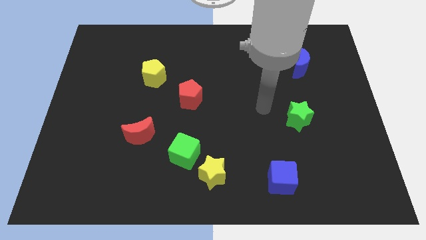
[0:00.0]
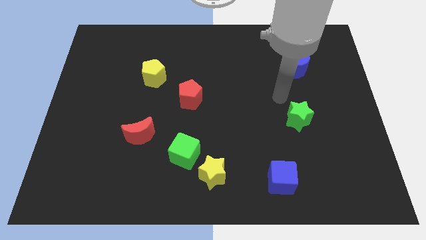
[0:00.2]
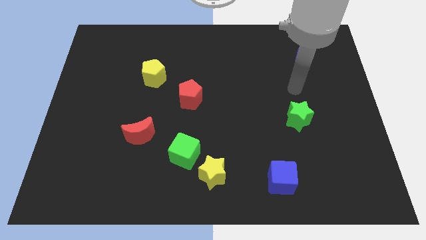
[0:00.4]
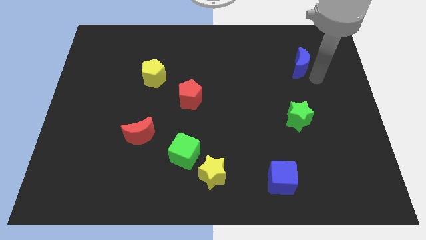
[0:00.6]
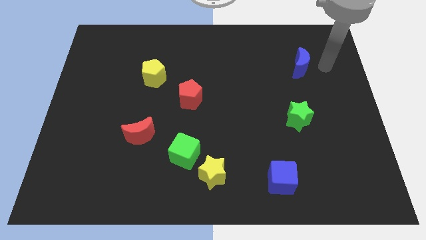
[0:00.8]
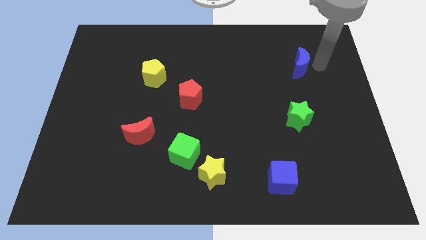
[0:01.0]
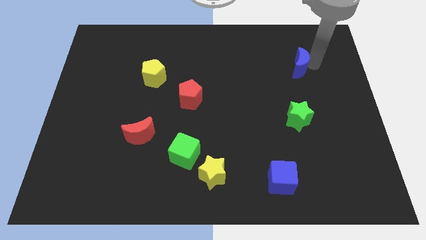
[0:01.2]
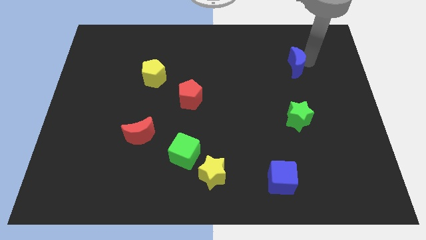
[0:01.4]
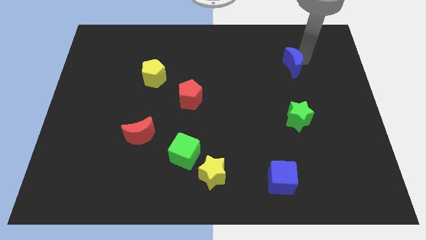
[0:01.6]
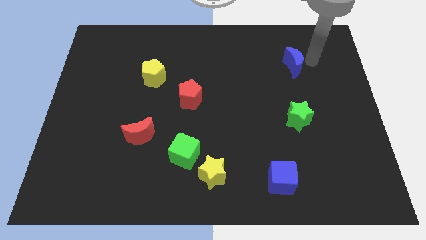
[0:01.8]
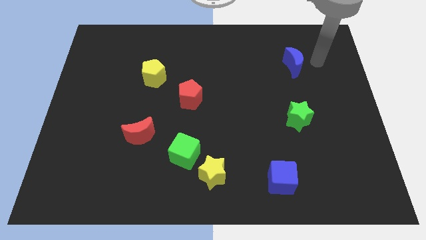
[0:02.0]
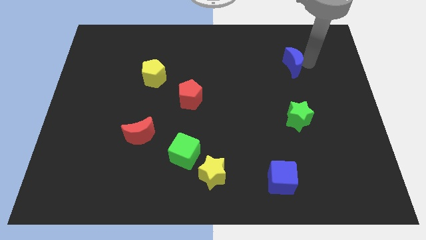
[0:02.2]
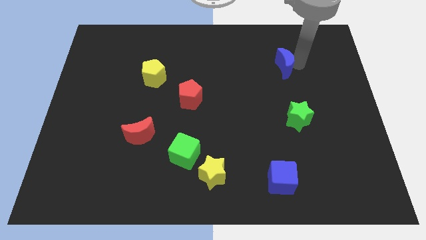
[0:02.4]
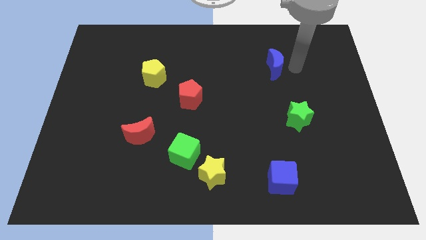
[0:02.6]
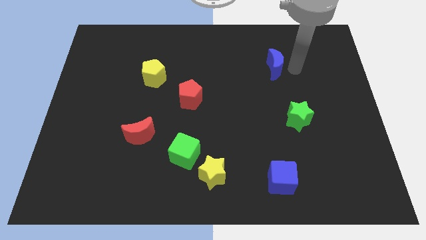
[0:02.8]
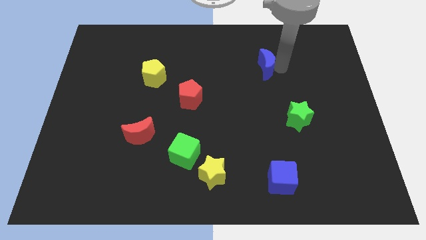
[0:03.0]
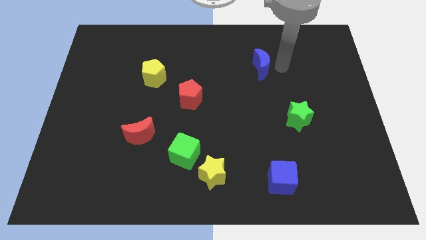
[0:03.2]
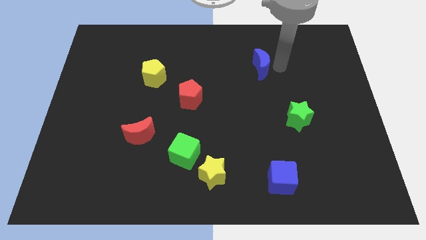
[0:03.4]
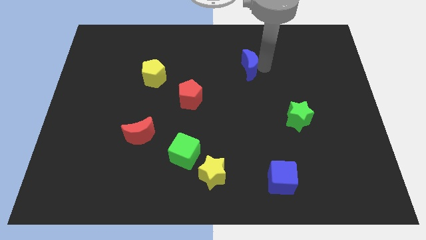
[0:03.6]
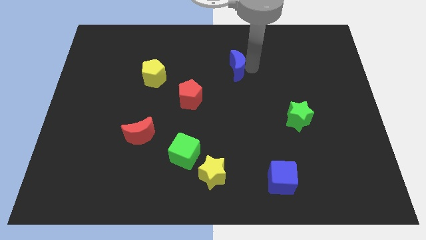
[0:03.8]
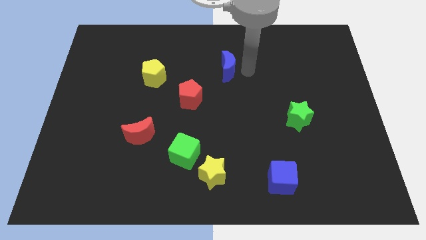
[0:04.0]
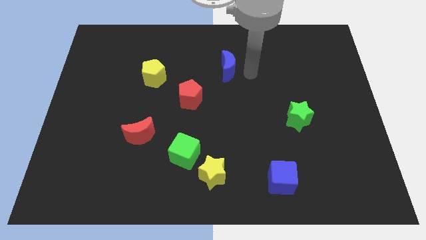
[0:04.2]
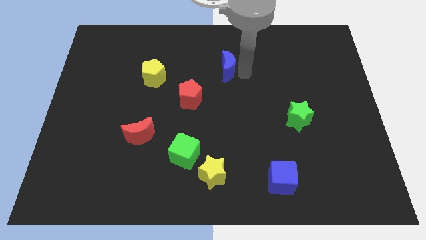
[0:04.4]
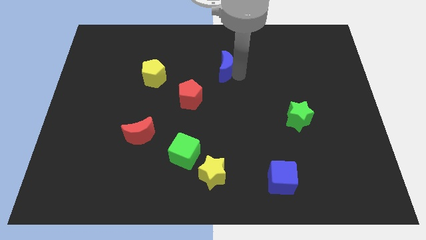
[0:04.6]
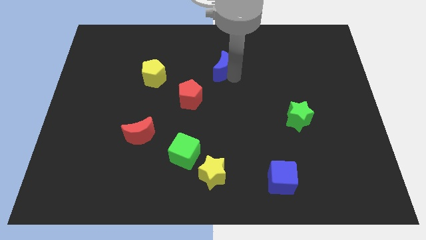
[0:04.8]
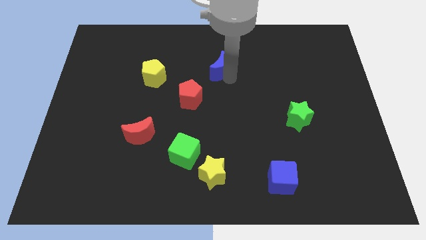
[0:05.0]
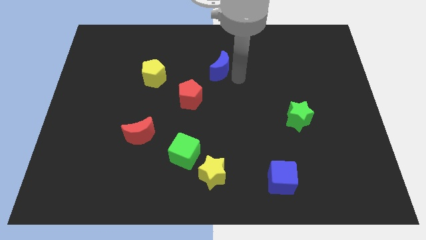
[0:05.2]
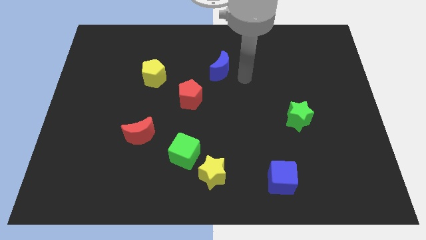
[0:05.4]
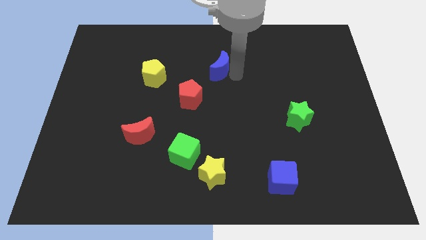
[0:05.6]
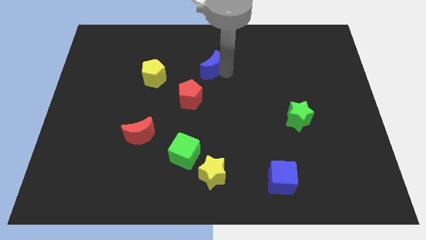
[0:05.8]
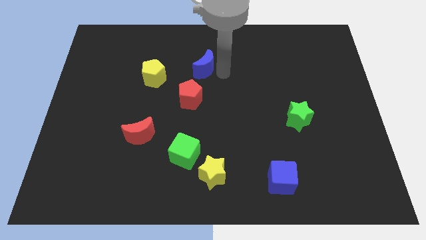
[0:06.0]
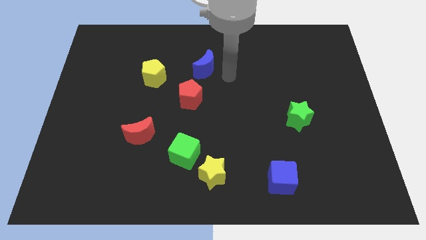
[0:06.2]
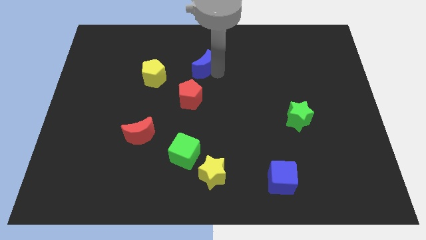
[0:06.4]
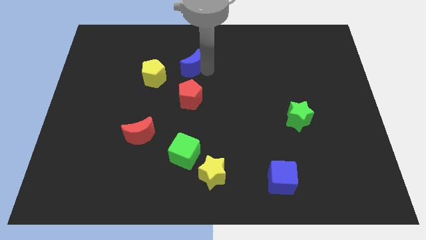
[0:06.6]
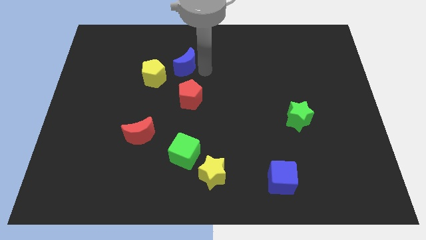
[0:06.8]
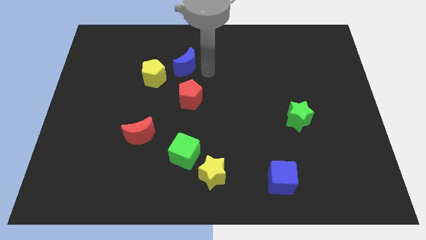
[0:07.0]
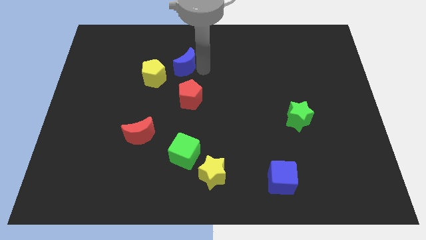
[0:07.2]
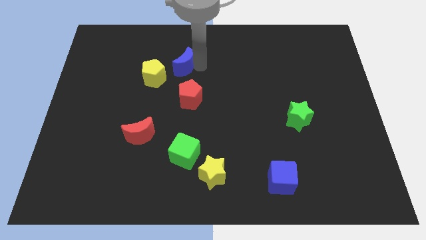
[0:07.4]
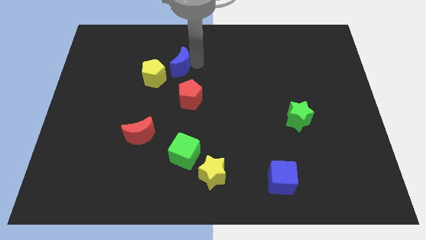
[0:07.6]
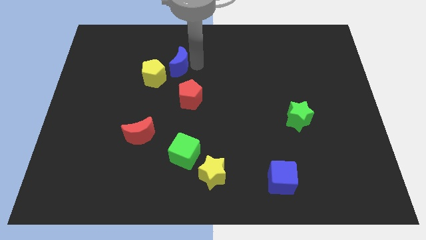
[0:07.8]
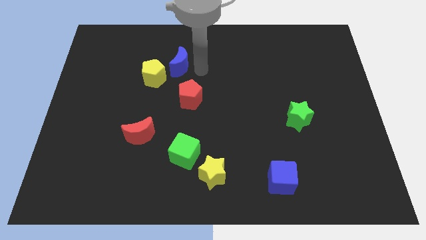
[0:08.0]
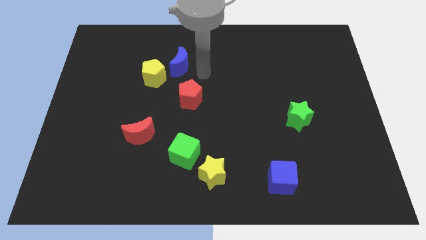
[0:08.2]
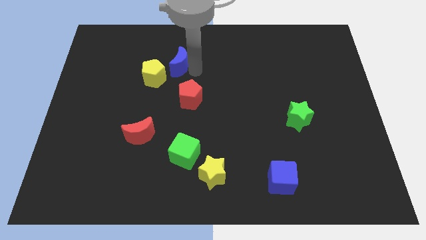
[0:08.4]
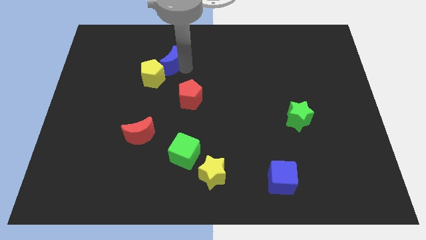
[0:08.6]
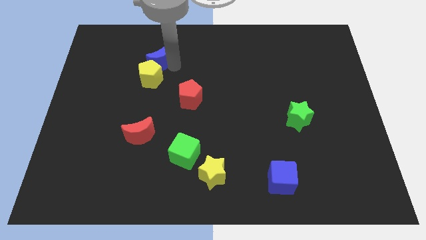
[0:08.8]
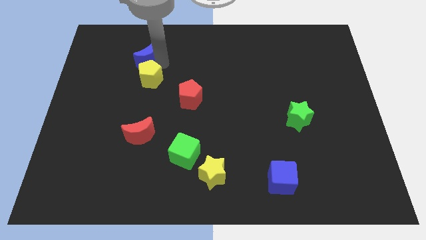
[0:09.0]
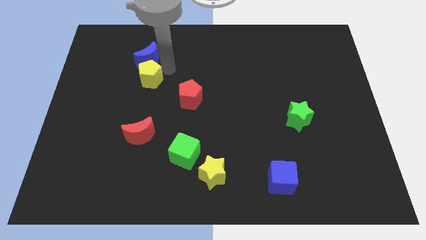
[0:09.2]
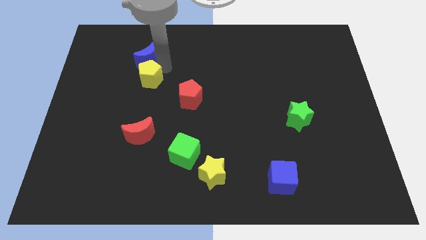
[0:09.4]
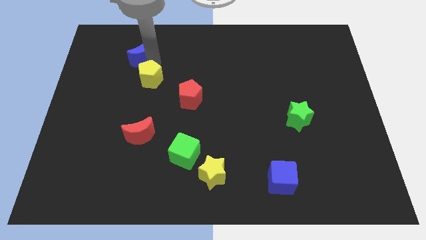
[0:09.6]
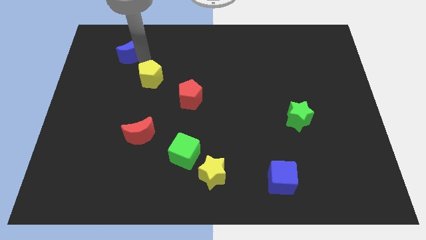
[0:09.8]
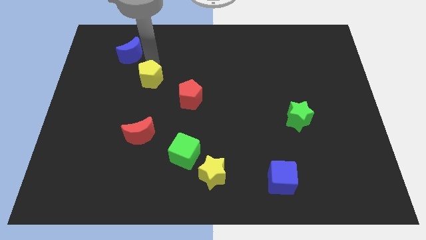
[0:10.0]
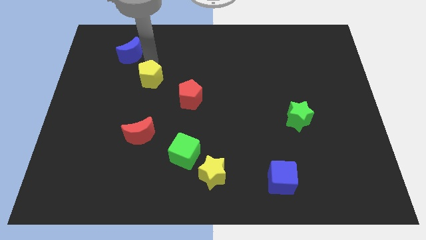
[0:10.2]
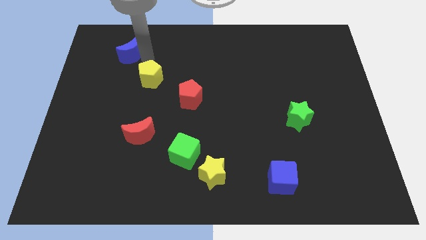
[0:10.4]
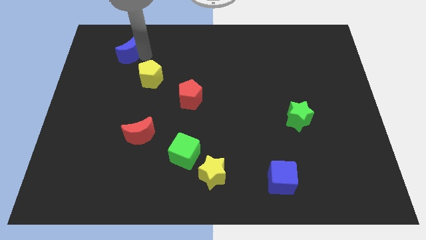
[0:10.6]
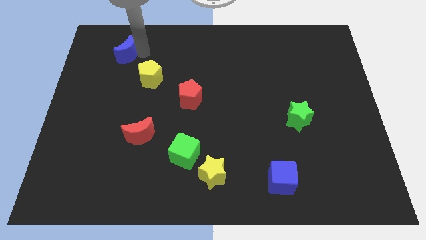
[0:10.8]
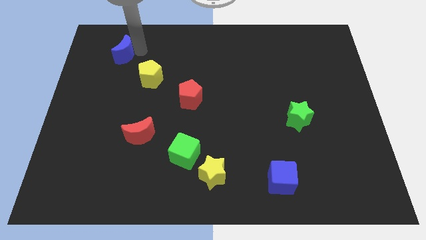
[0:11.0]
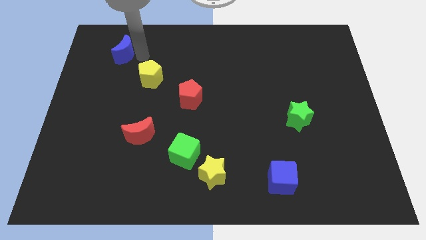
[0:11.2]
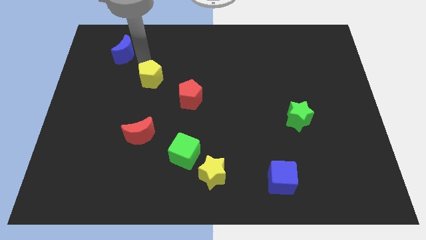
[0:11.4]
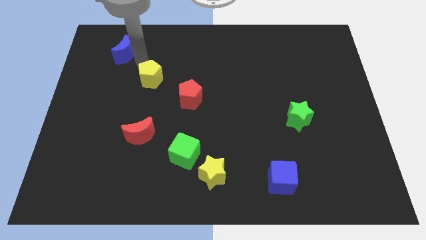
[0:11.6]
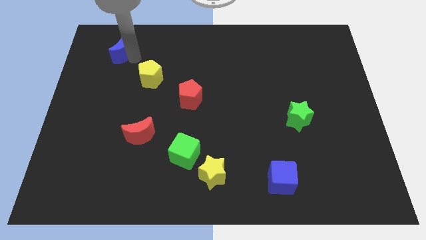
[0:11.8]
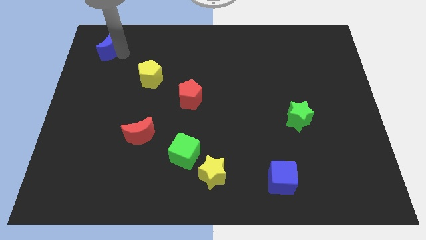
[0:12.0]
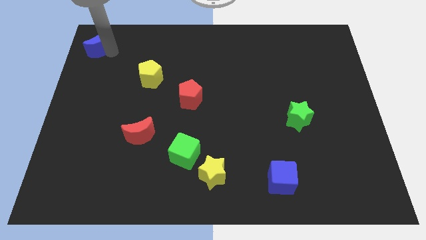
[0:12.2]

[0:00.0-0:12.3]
move the blue moon to the top left corner
